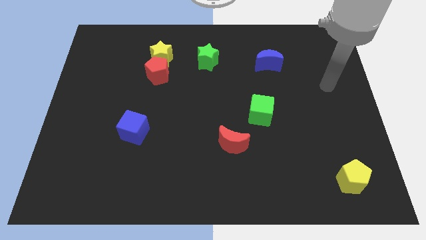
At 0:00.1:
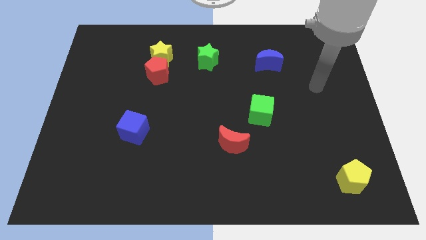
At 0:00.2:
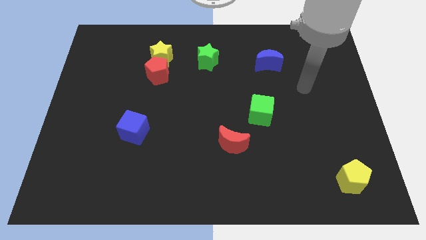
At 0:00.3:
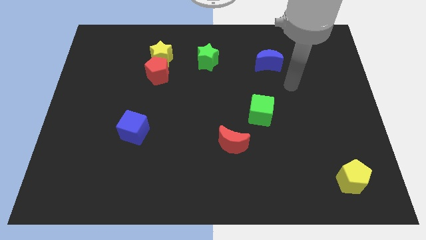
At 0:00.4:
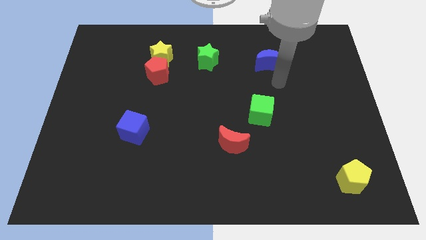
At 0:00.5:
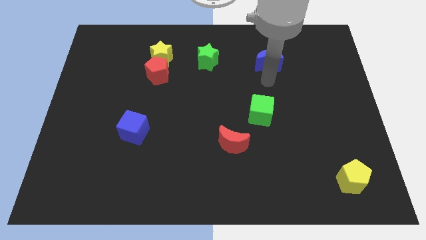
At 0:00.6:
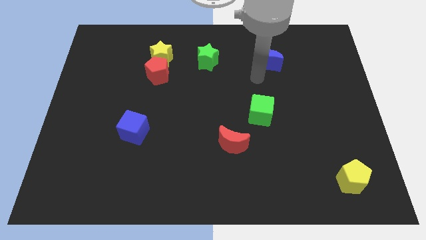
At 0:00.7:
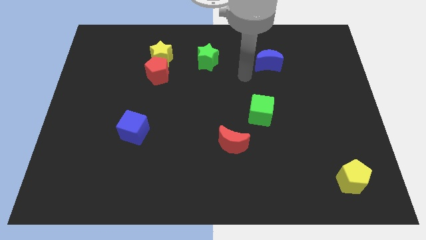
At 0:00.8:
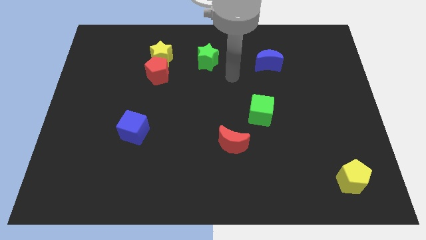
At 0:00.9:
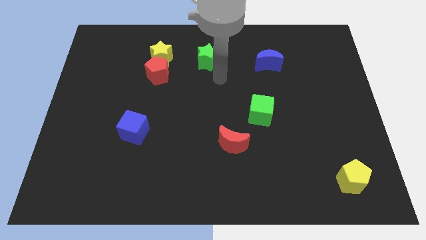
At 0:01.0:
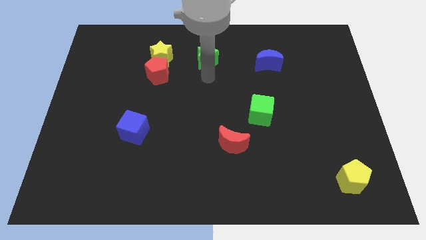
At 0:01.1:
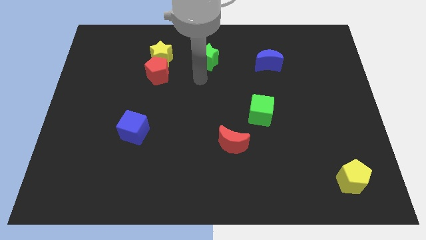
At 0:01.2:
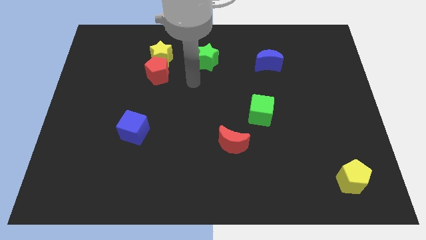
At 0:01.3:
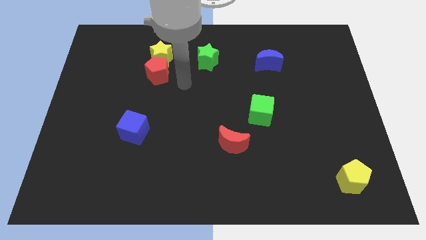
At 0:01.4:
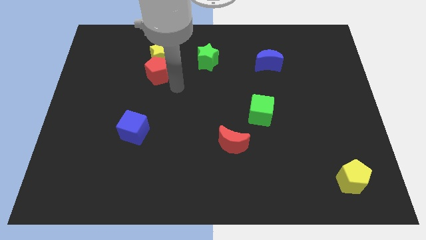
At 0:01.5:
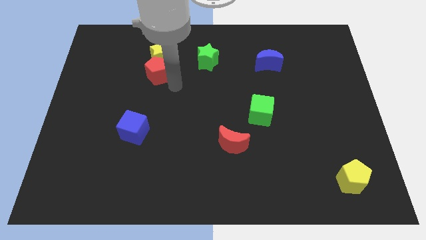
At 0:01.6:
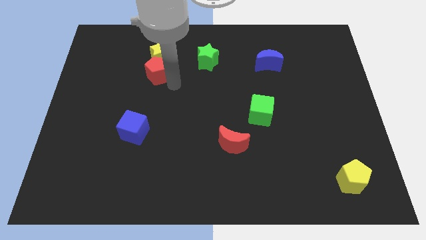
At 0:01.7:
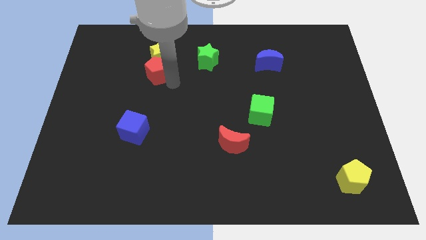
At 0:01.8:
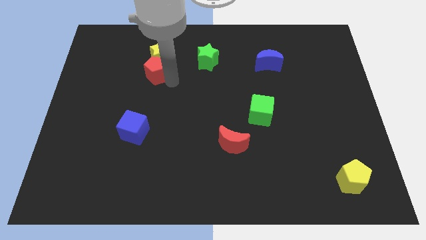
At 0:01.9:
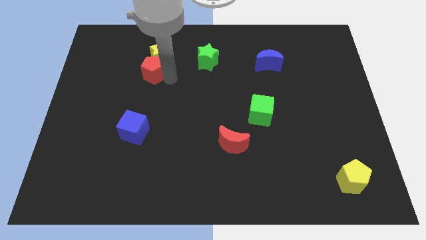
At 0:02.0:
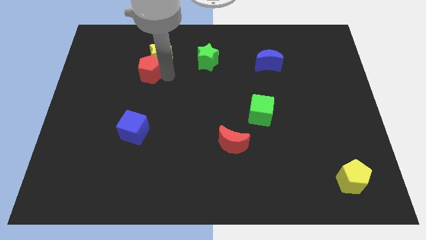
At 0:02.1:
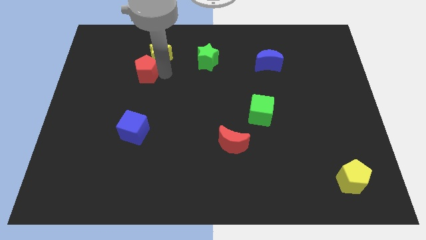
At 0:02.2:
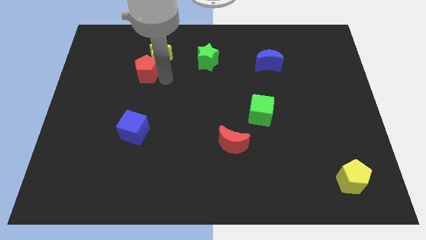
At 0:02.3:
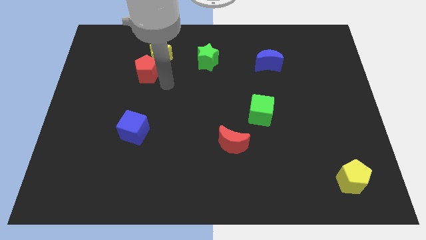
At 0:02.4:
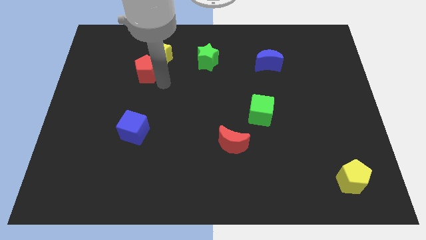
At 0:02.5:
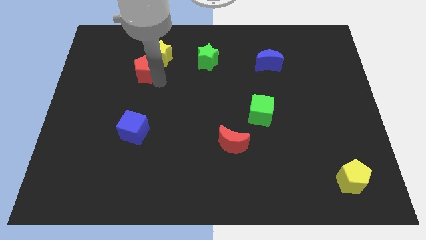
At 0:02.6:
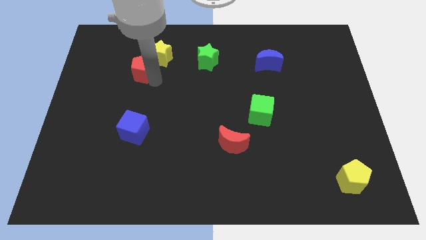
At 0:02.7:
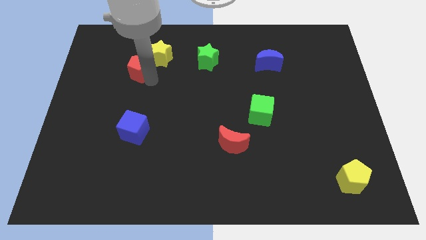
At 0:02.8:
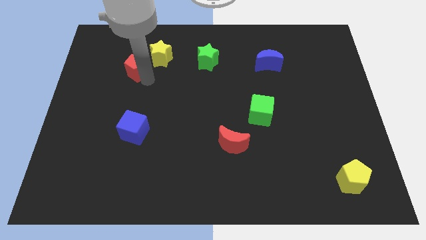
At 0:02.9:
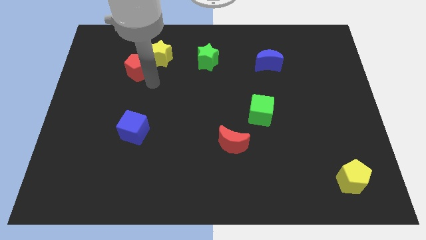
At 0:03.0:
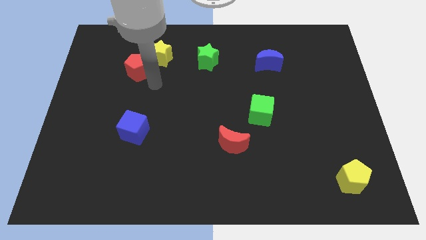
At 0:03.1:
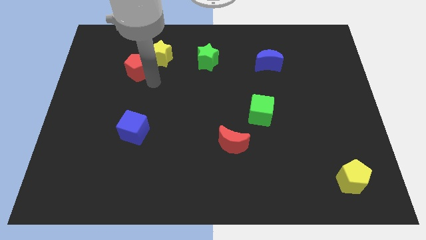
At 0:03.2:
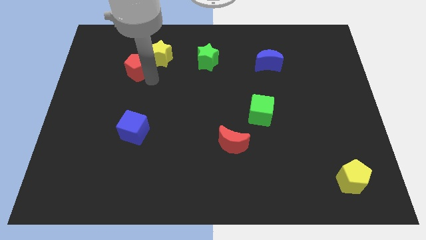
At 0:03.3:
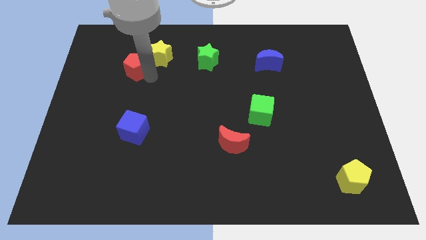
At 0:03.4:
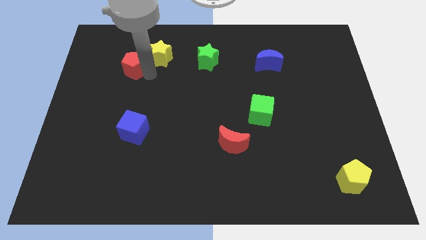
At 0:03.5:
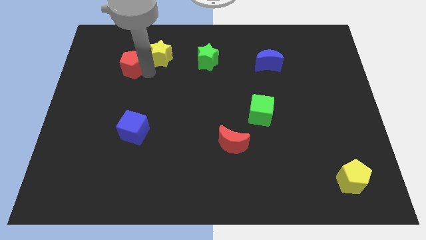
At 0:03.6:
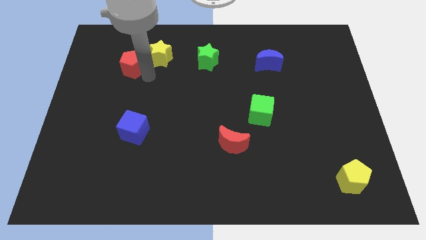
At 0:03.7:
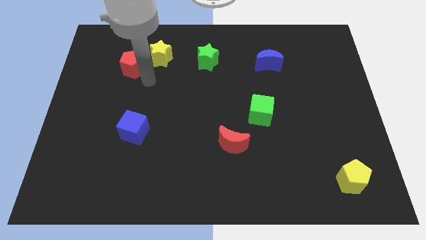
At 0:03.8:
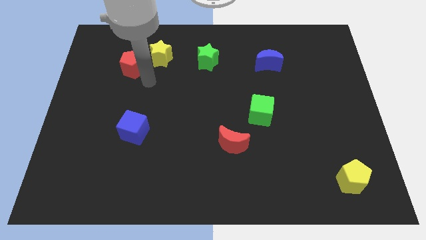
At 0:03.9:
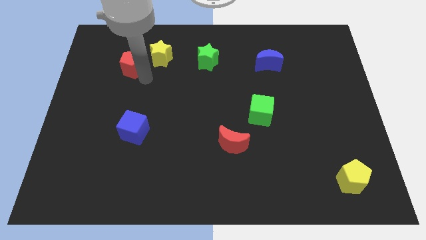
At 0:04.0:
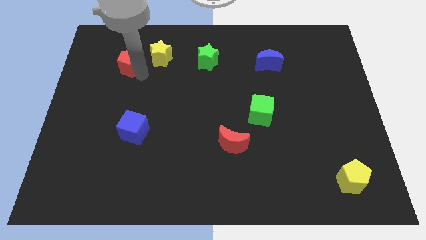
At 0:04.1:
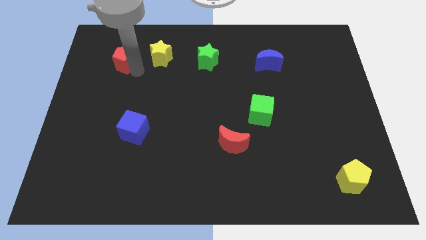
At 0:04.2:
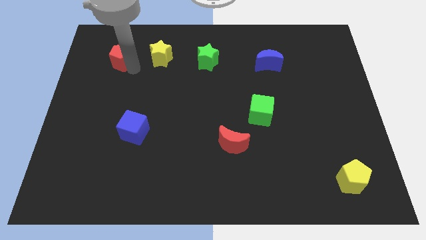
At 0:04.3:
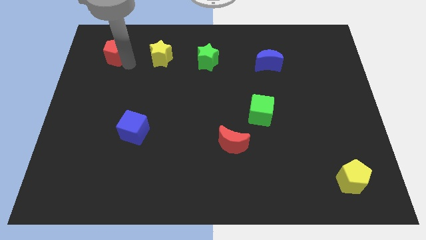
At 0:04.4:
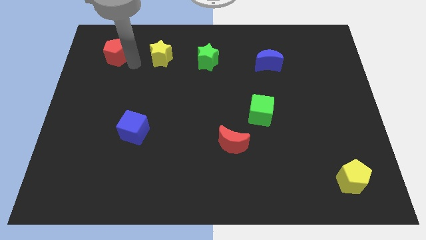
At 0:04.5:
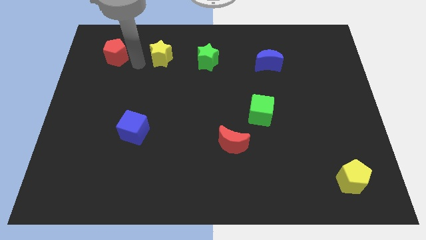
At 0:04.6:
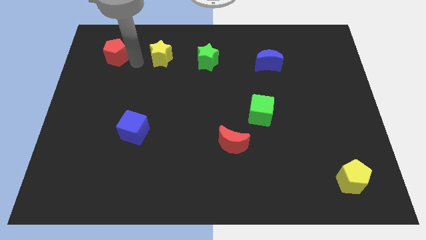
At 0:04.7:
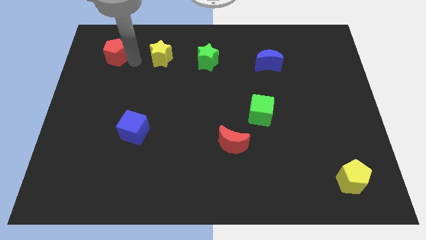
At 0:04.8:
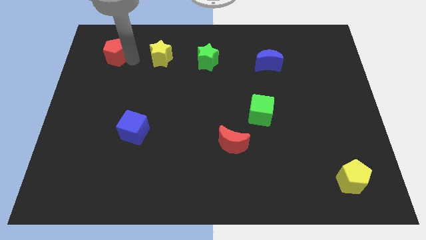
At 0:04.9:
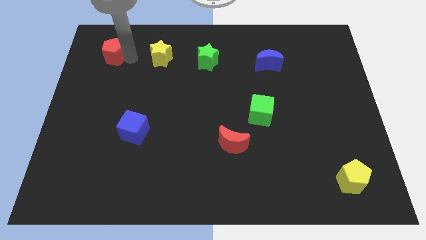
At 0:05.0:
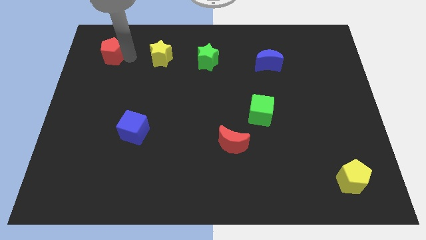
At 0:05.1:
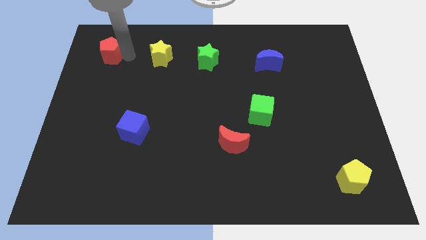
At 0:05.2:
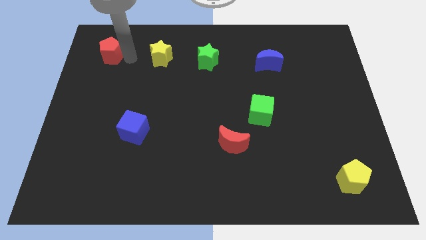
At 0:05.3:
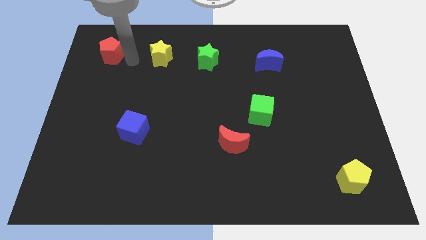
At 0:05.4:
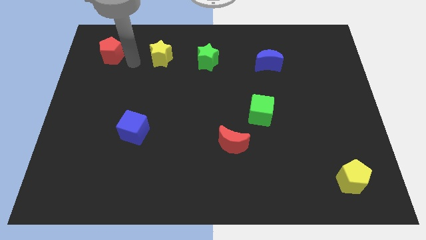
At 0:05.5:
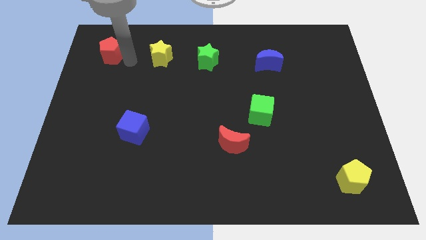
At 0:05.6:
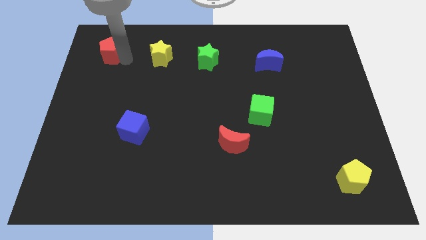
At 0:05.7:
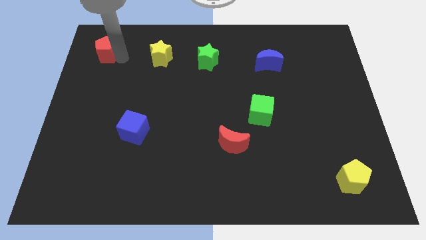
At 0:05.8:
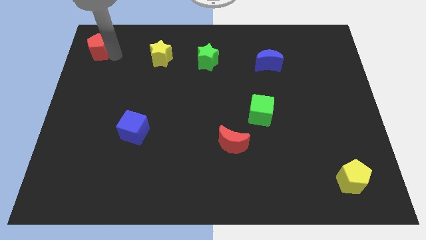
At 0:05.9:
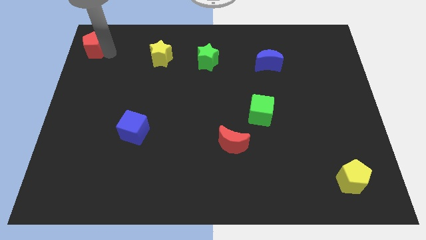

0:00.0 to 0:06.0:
put the red pentagon to the top left
